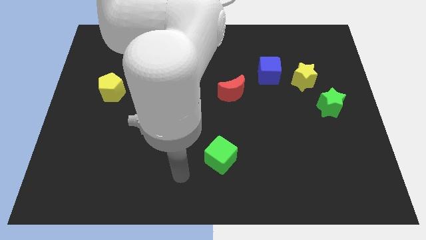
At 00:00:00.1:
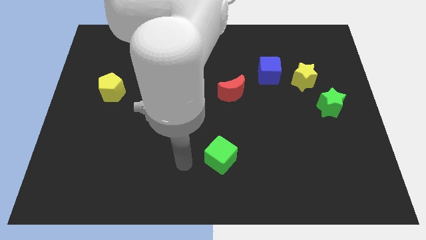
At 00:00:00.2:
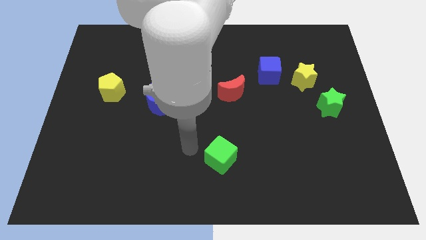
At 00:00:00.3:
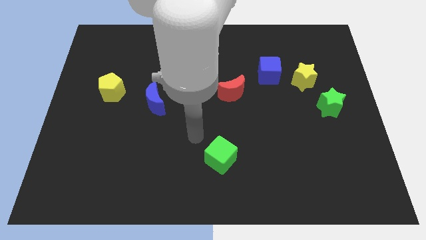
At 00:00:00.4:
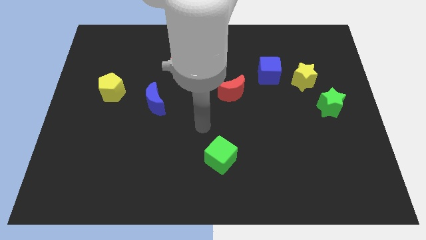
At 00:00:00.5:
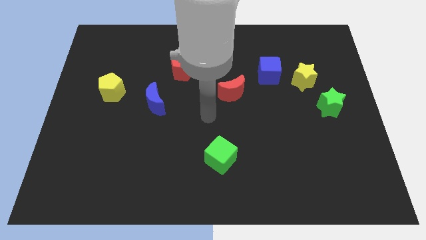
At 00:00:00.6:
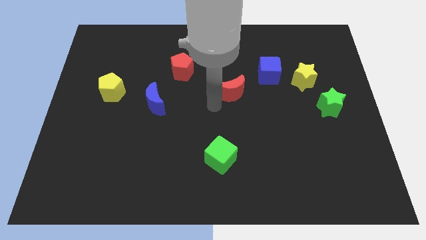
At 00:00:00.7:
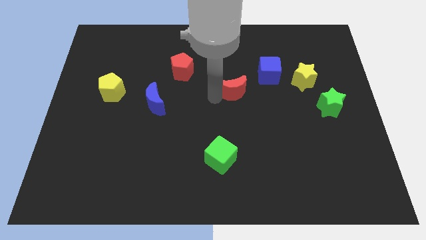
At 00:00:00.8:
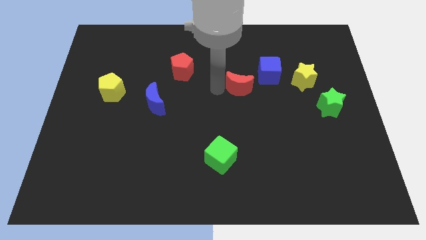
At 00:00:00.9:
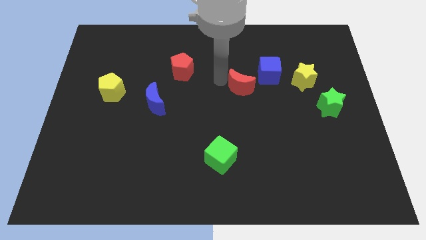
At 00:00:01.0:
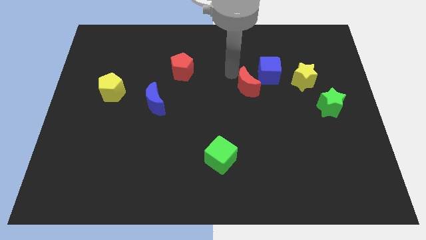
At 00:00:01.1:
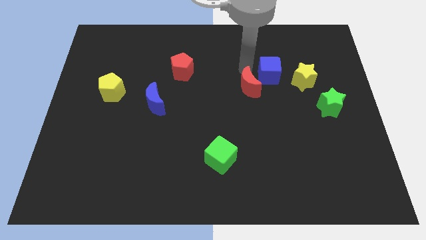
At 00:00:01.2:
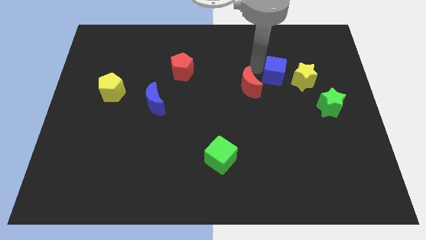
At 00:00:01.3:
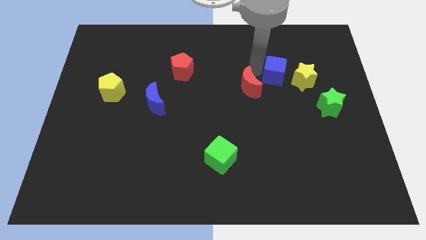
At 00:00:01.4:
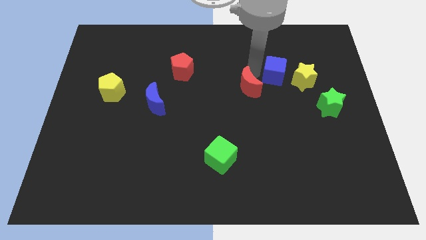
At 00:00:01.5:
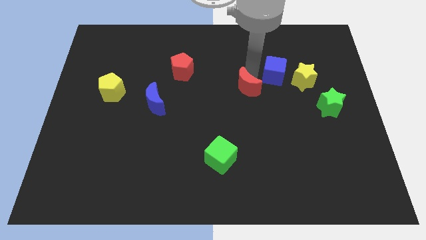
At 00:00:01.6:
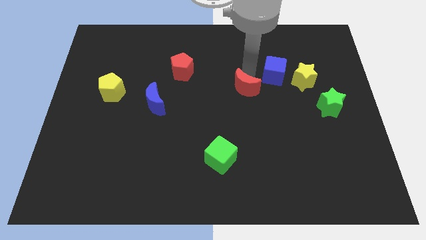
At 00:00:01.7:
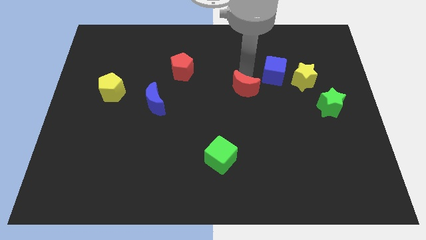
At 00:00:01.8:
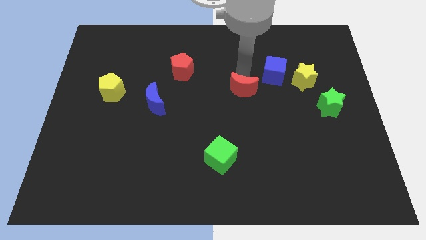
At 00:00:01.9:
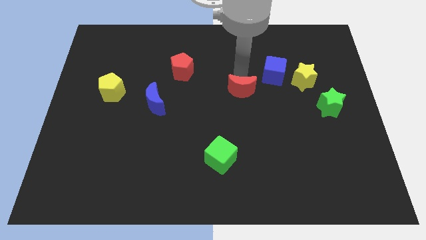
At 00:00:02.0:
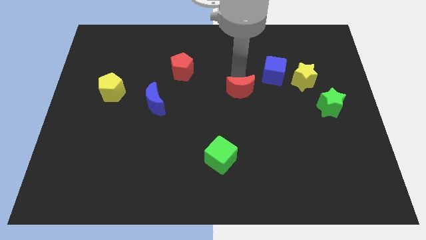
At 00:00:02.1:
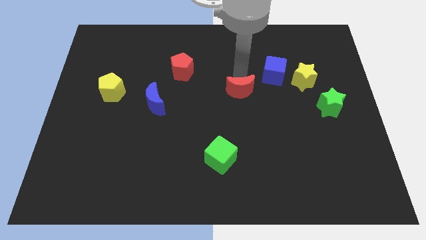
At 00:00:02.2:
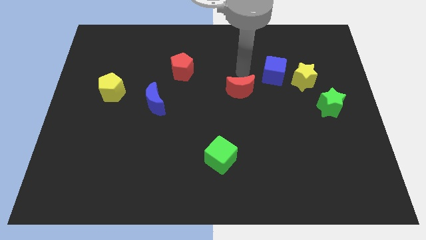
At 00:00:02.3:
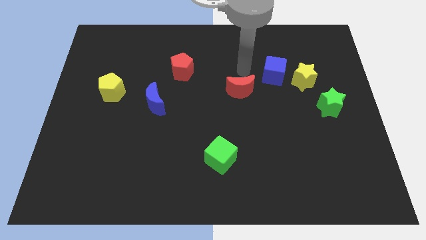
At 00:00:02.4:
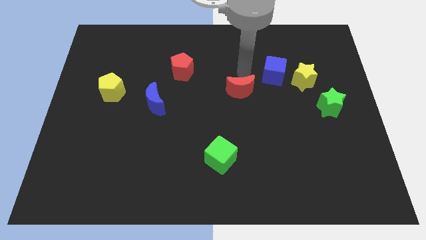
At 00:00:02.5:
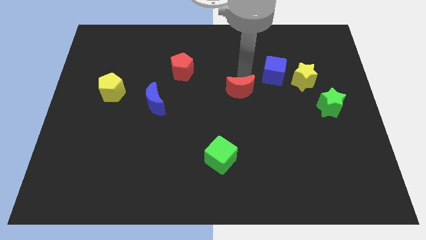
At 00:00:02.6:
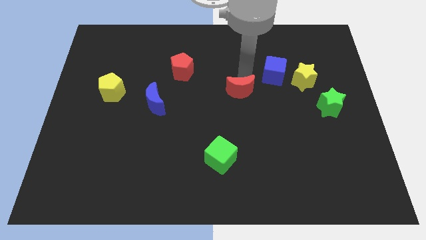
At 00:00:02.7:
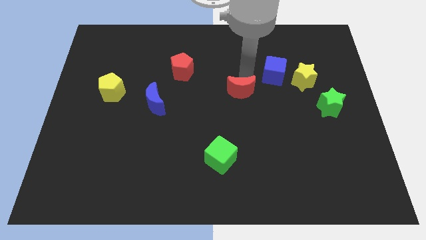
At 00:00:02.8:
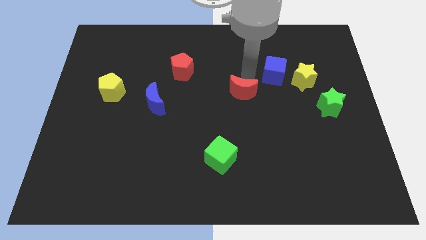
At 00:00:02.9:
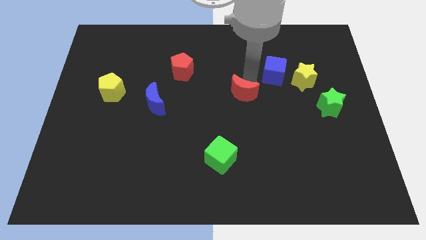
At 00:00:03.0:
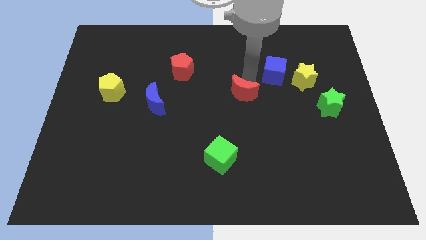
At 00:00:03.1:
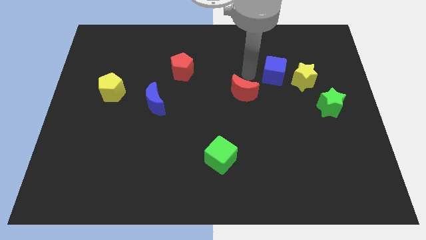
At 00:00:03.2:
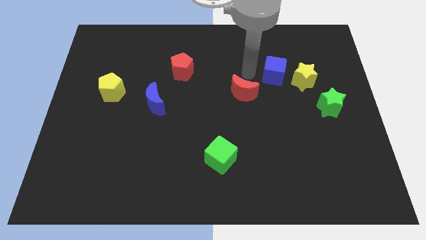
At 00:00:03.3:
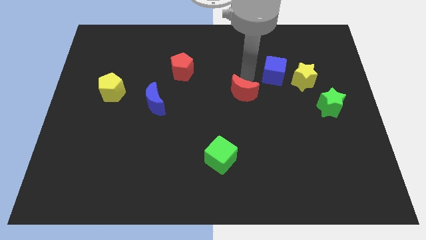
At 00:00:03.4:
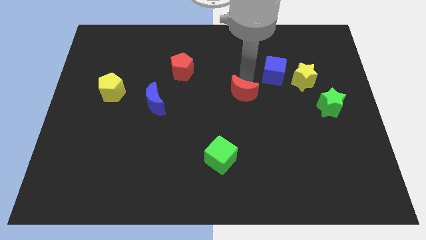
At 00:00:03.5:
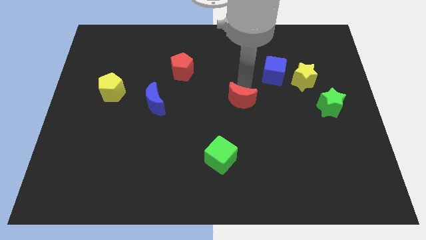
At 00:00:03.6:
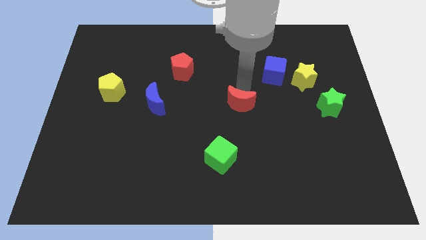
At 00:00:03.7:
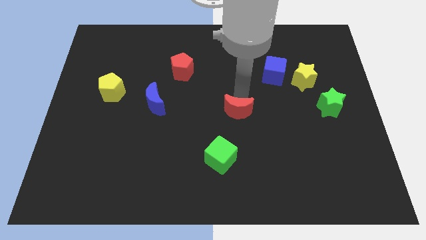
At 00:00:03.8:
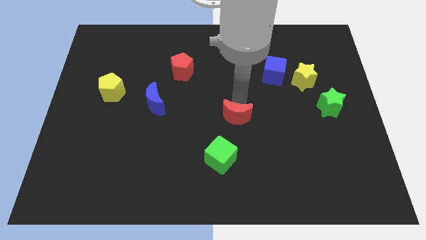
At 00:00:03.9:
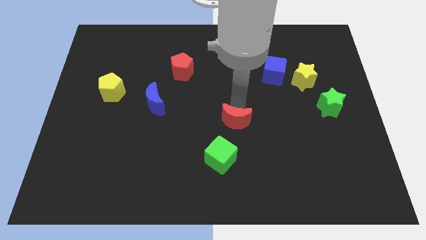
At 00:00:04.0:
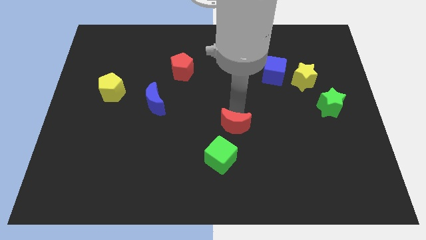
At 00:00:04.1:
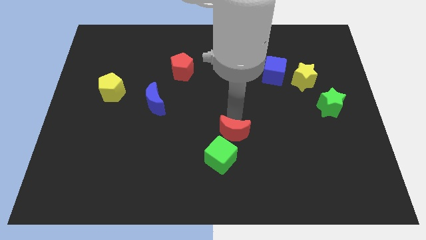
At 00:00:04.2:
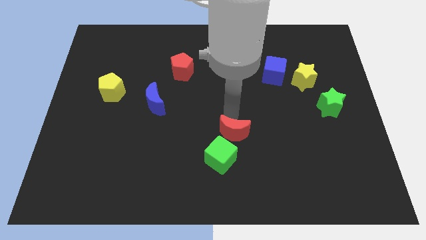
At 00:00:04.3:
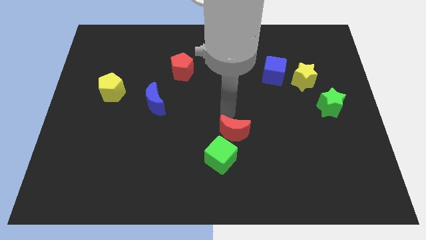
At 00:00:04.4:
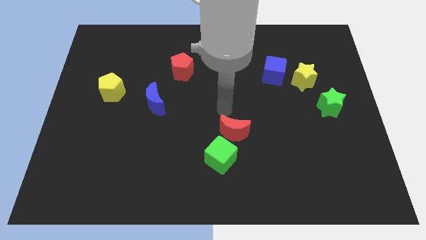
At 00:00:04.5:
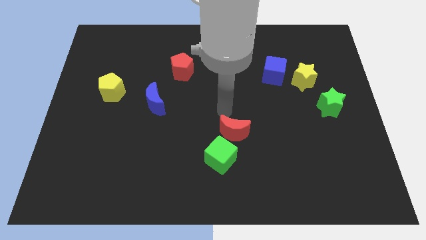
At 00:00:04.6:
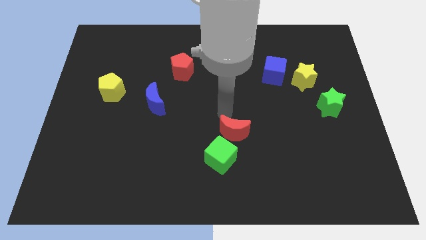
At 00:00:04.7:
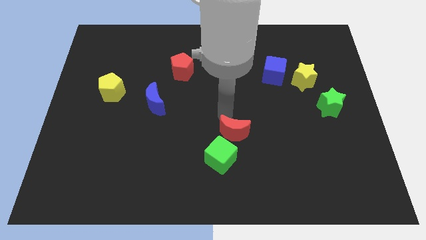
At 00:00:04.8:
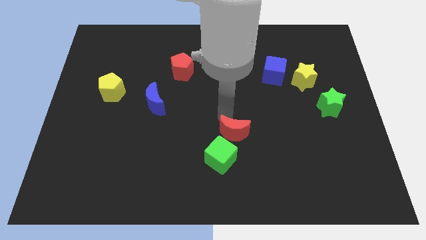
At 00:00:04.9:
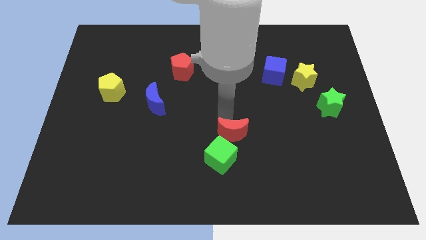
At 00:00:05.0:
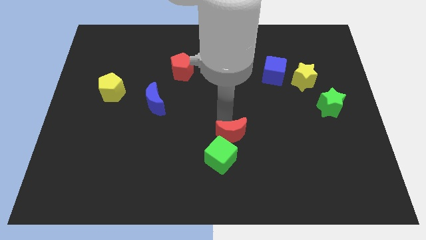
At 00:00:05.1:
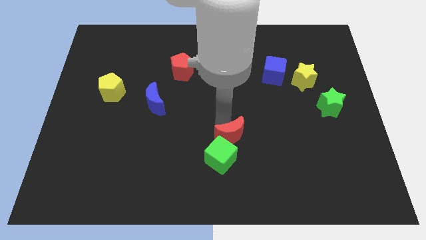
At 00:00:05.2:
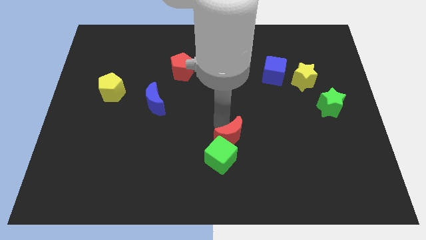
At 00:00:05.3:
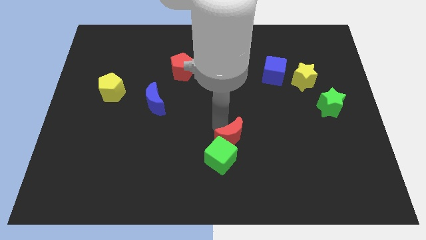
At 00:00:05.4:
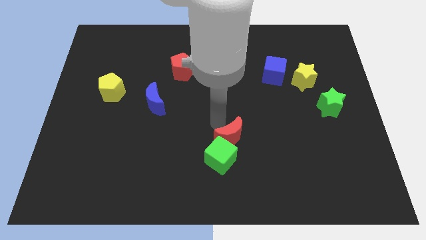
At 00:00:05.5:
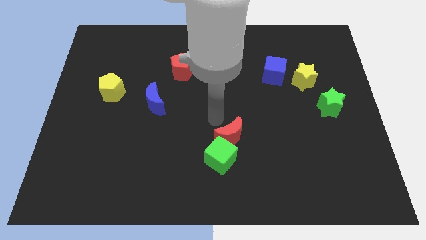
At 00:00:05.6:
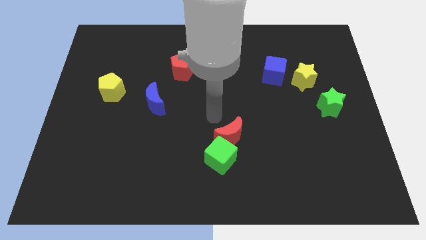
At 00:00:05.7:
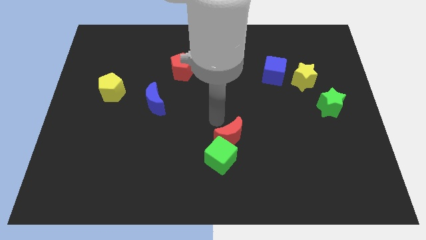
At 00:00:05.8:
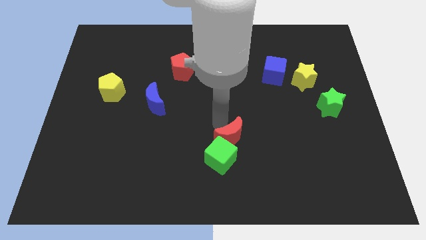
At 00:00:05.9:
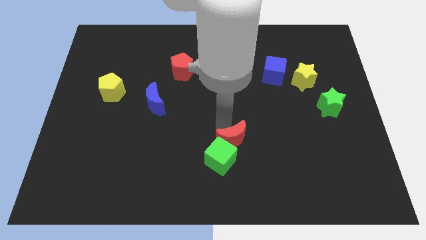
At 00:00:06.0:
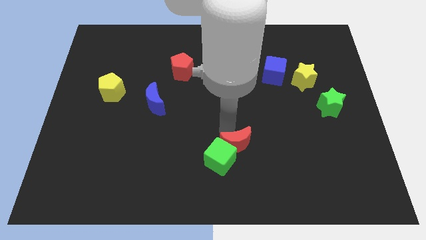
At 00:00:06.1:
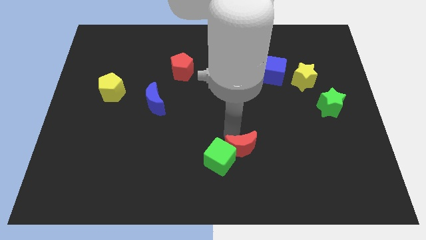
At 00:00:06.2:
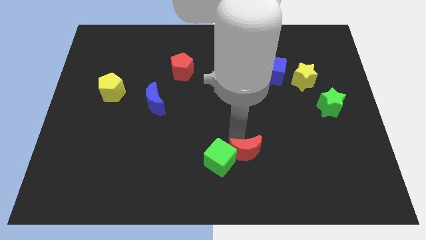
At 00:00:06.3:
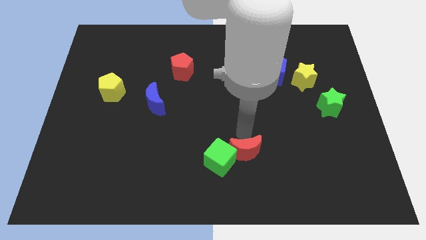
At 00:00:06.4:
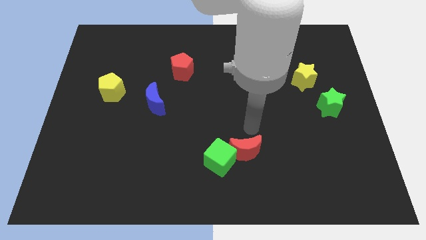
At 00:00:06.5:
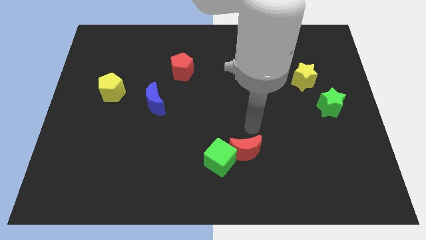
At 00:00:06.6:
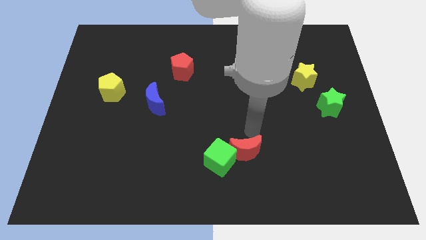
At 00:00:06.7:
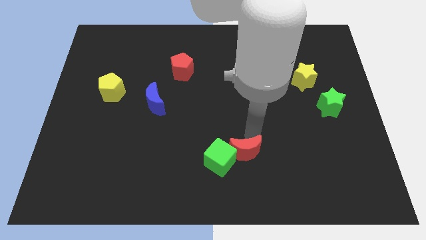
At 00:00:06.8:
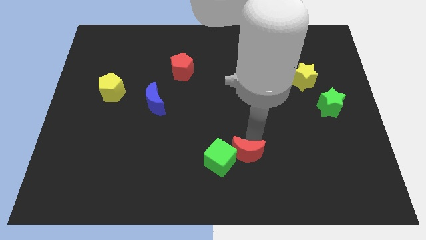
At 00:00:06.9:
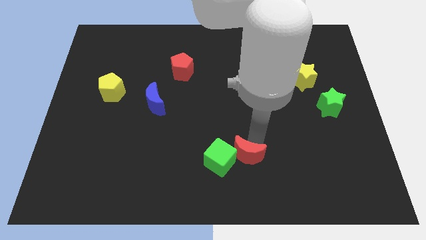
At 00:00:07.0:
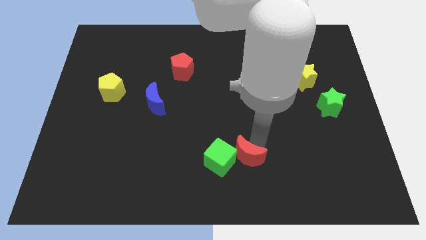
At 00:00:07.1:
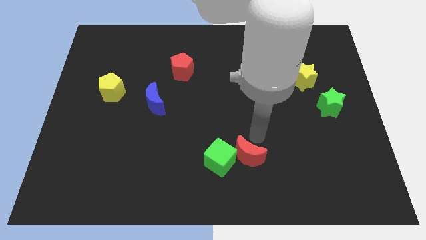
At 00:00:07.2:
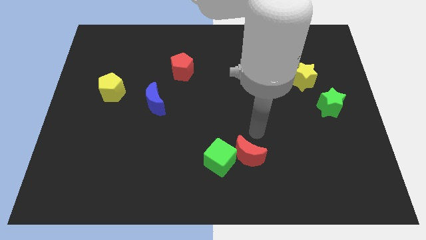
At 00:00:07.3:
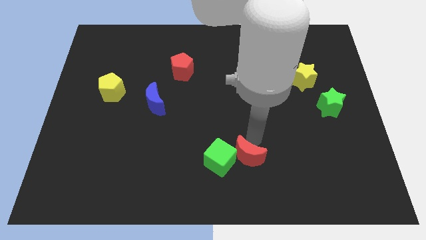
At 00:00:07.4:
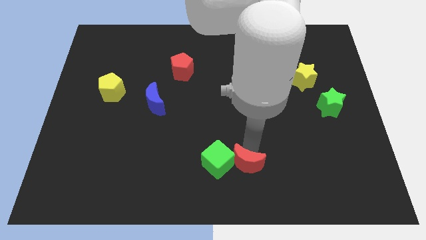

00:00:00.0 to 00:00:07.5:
put the red moon to the bottom side
